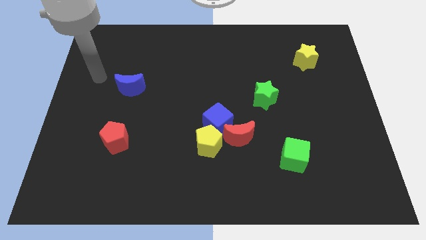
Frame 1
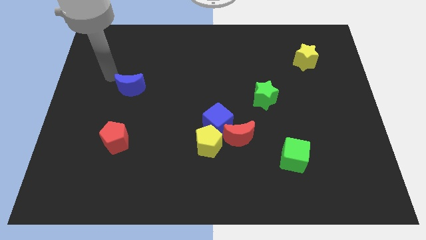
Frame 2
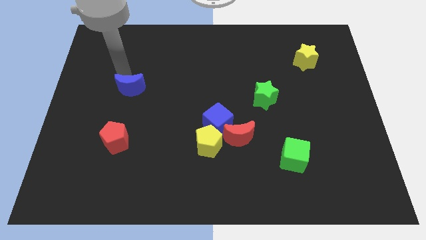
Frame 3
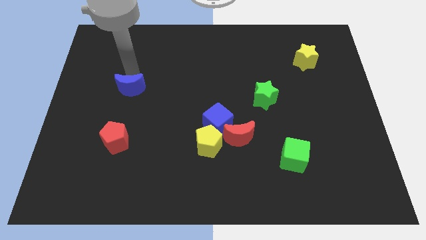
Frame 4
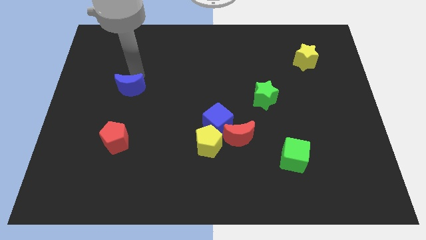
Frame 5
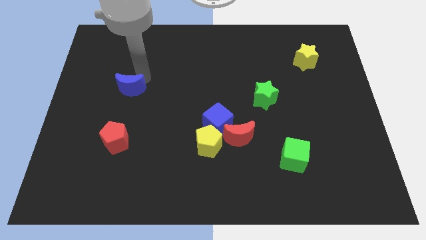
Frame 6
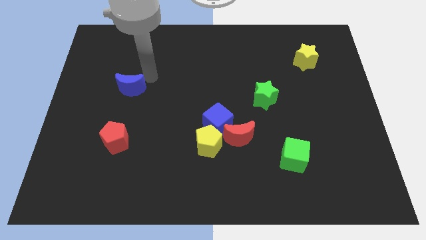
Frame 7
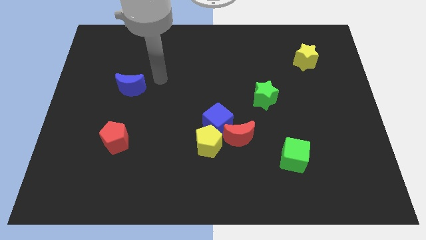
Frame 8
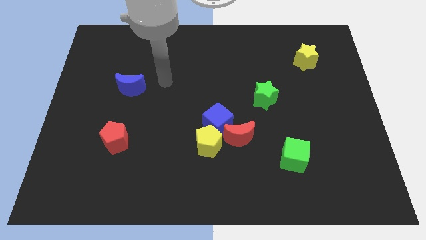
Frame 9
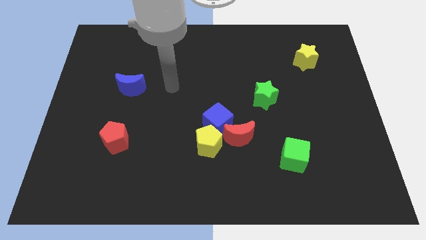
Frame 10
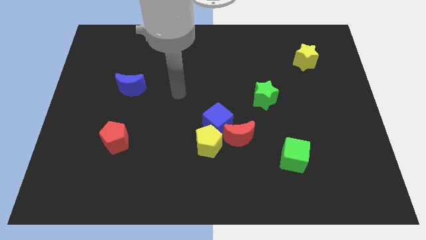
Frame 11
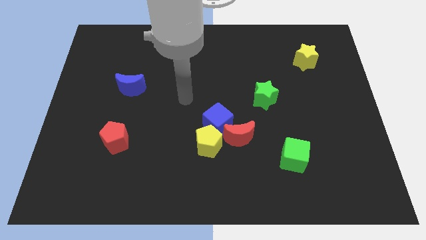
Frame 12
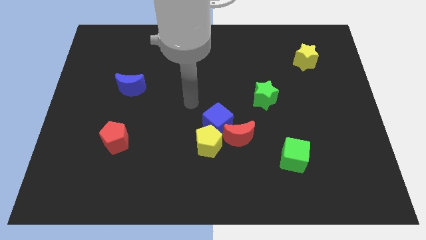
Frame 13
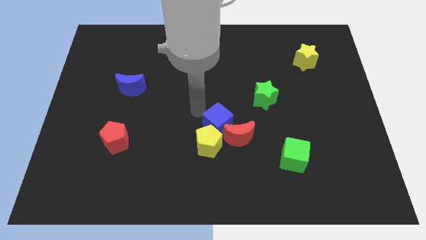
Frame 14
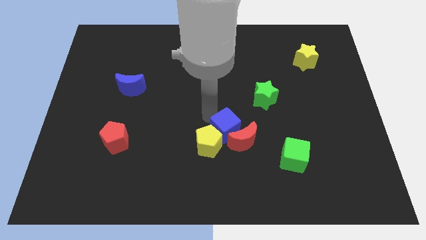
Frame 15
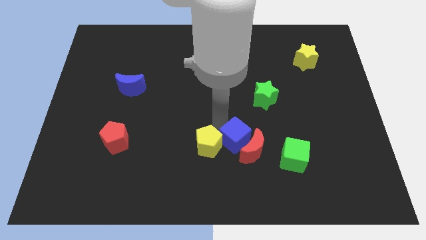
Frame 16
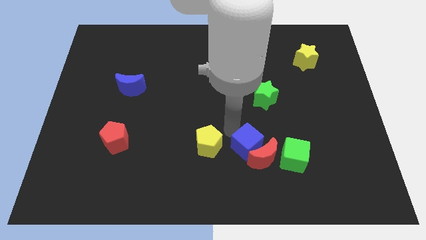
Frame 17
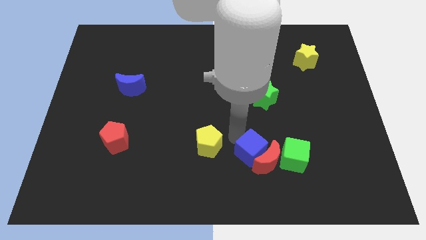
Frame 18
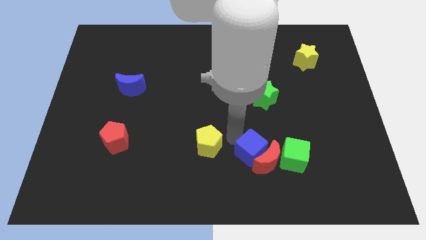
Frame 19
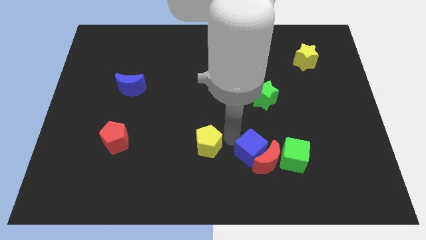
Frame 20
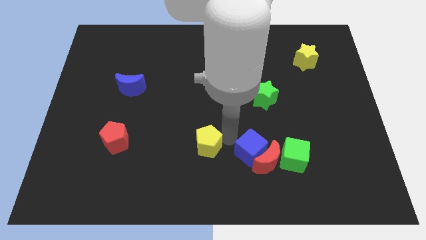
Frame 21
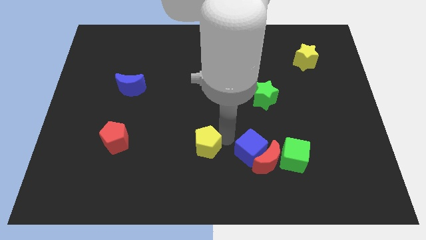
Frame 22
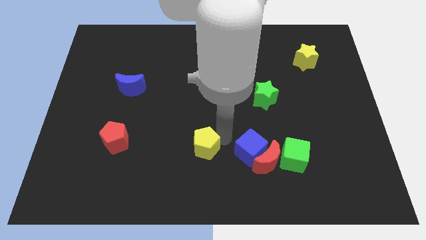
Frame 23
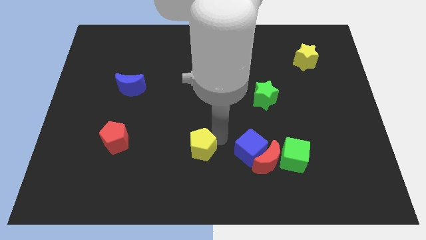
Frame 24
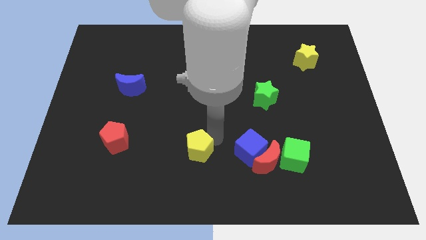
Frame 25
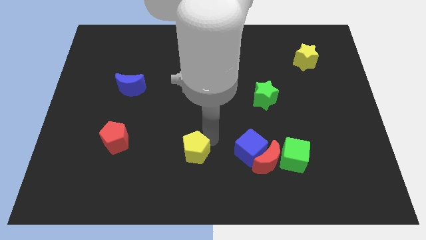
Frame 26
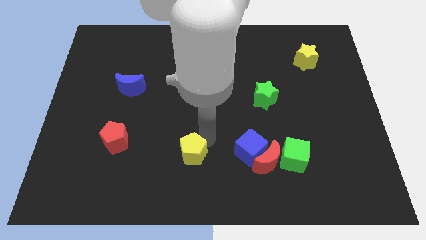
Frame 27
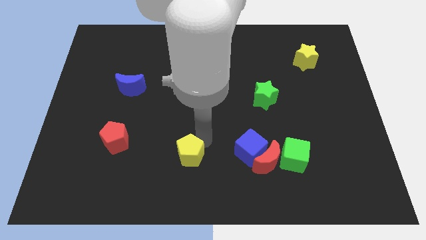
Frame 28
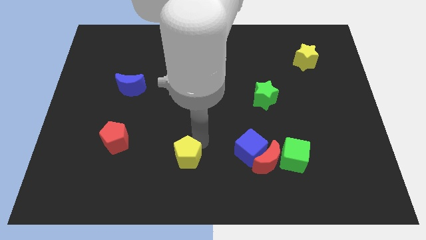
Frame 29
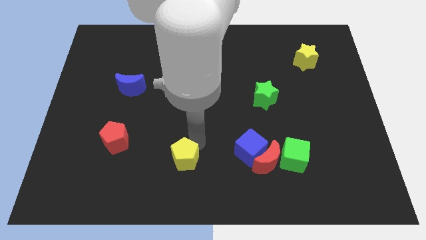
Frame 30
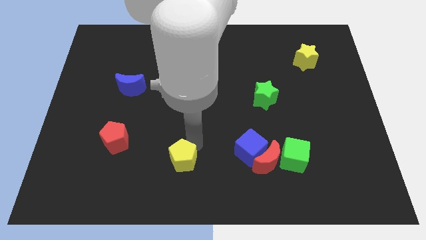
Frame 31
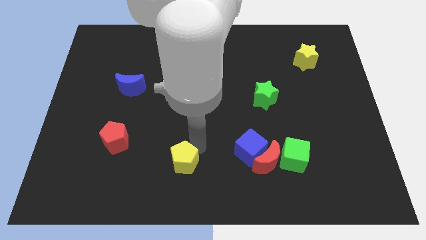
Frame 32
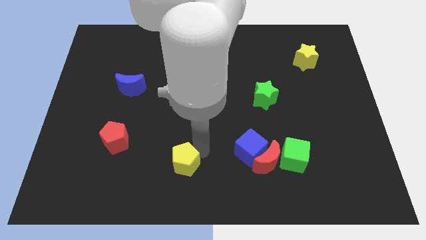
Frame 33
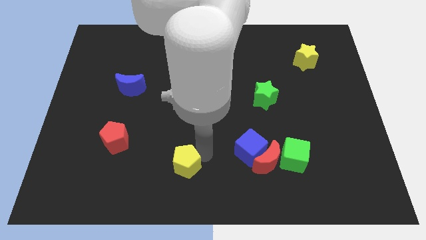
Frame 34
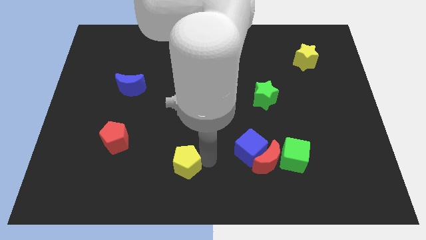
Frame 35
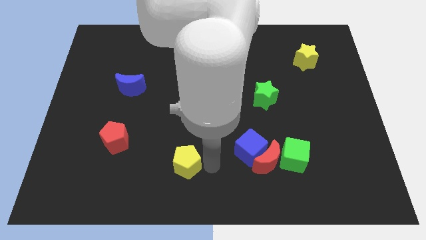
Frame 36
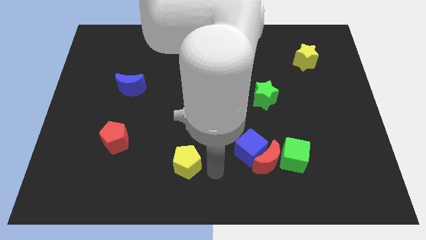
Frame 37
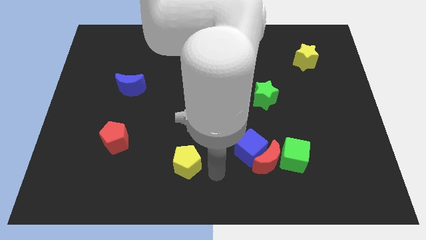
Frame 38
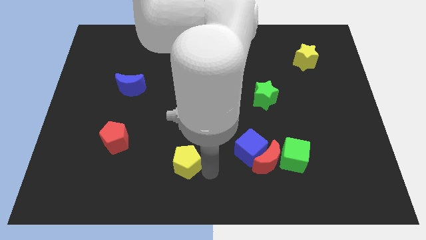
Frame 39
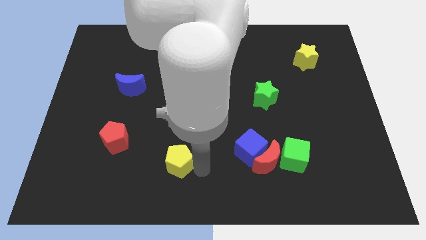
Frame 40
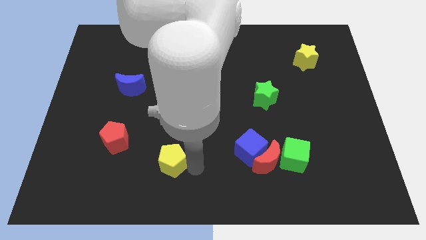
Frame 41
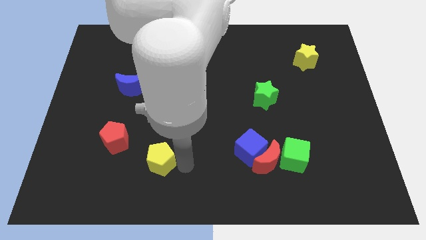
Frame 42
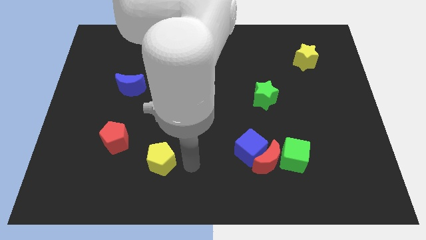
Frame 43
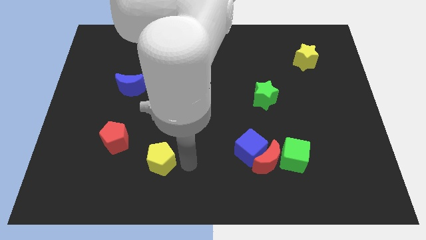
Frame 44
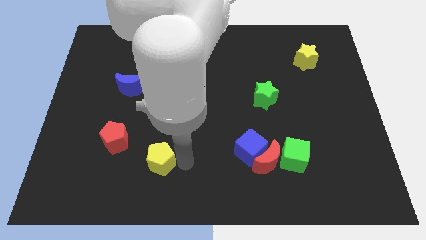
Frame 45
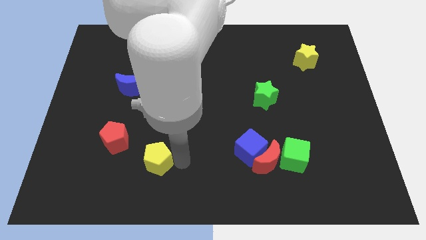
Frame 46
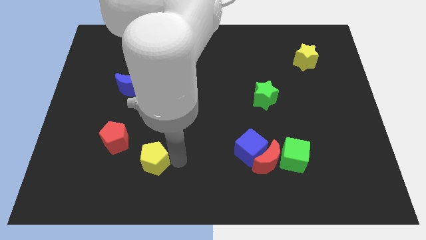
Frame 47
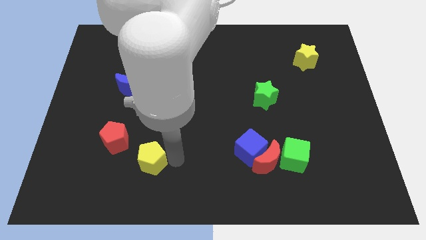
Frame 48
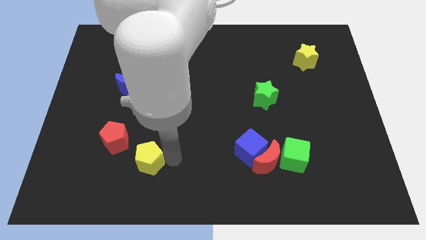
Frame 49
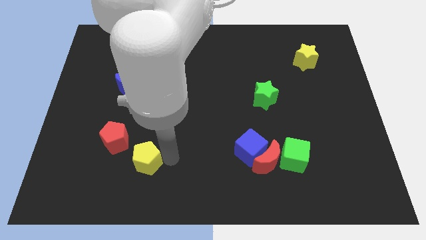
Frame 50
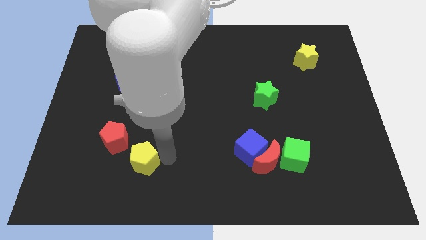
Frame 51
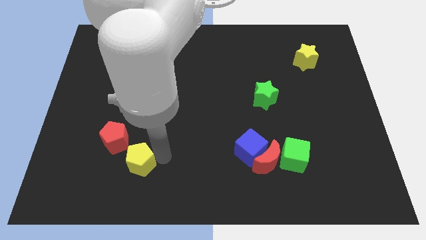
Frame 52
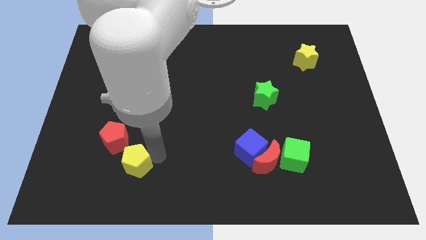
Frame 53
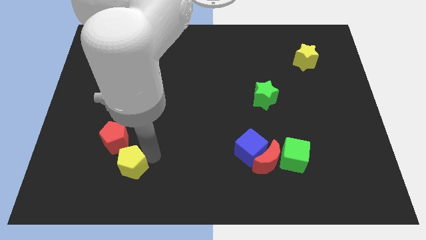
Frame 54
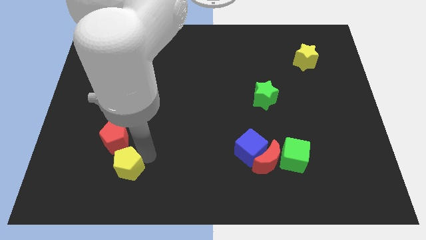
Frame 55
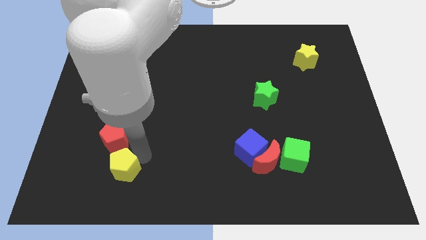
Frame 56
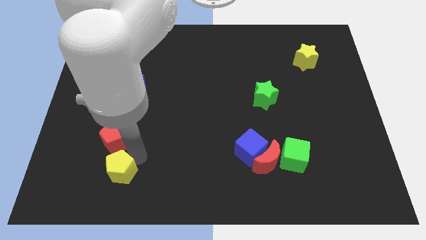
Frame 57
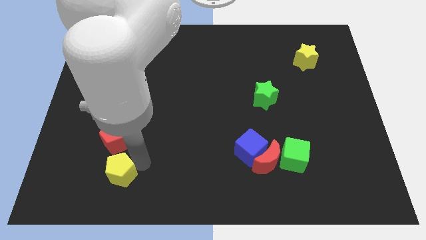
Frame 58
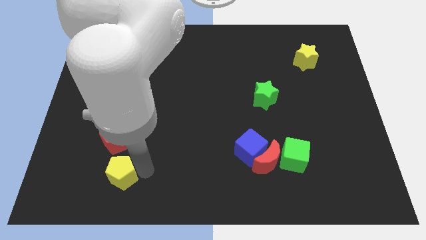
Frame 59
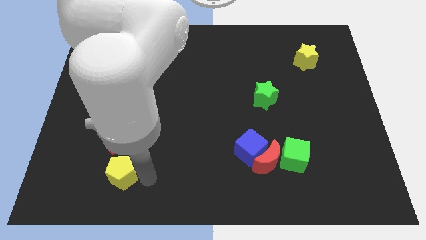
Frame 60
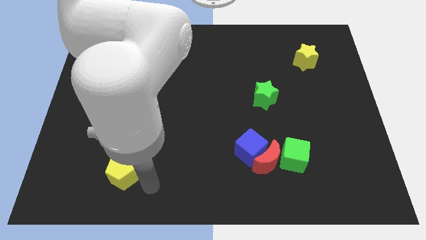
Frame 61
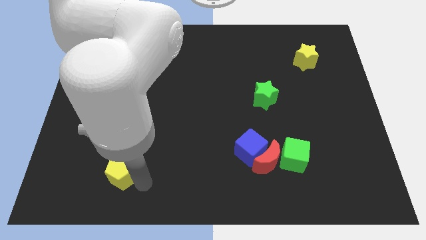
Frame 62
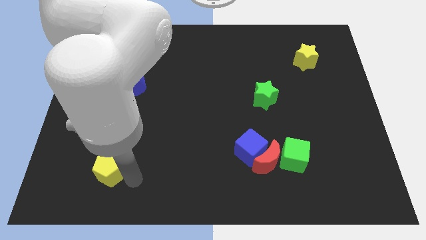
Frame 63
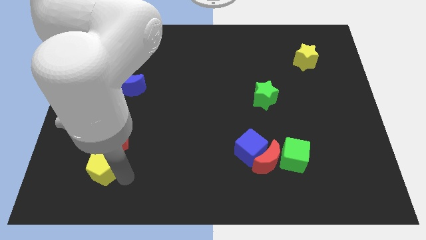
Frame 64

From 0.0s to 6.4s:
move the yellow pentagon to the bottom left of the red pentagon
